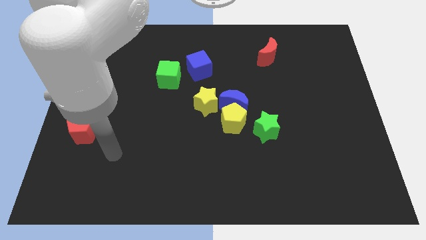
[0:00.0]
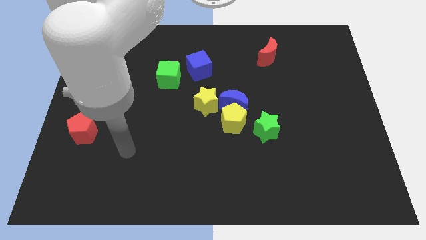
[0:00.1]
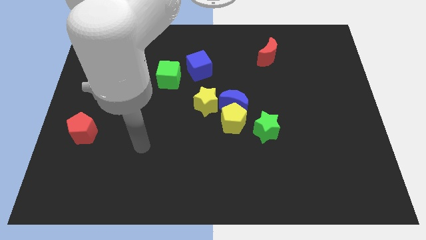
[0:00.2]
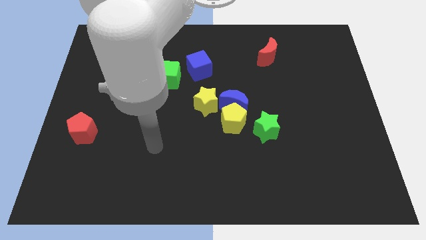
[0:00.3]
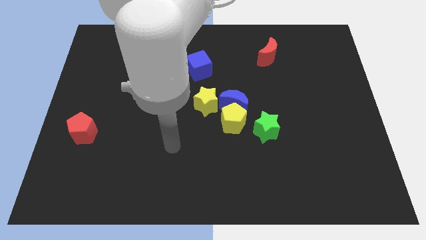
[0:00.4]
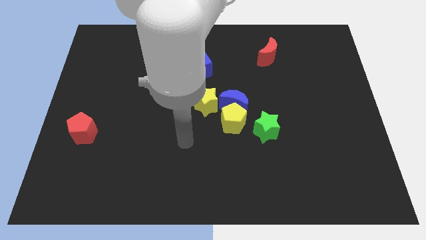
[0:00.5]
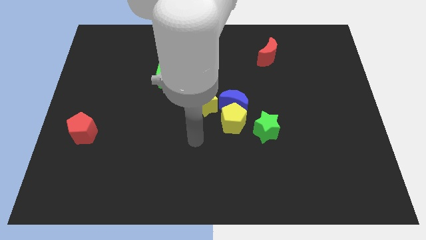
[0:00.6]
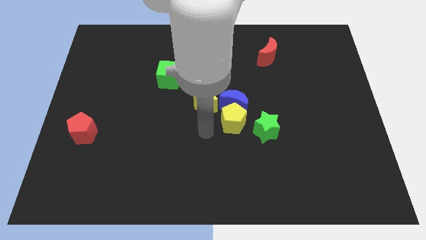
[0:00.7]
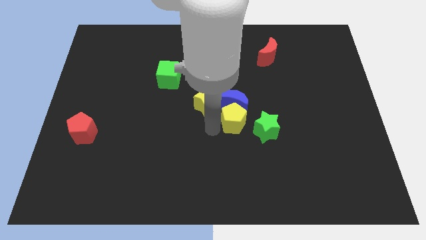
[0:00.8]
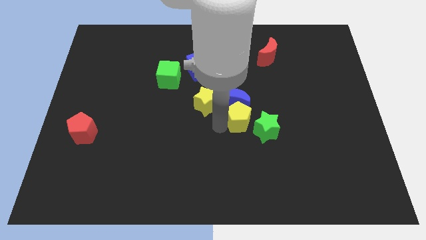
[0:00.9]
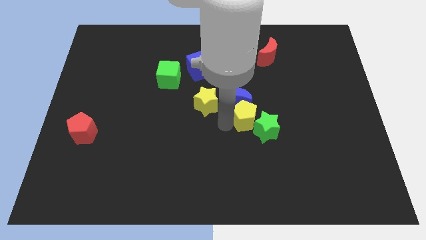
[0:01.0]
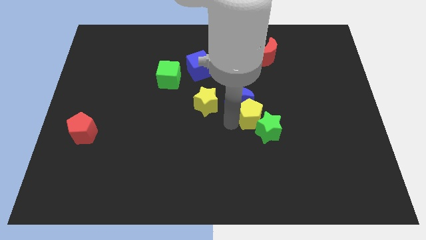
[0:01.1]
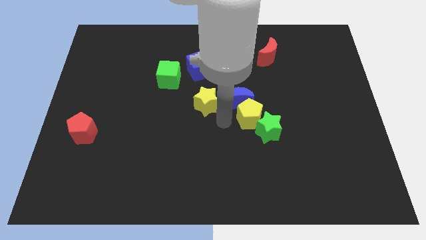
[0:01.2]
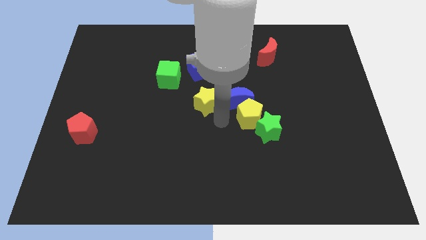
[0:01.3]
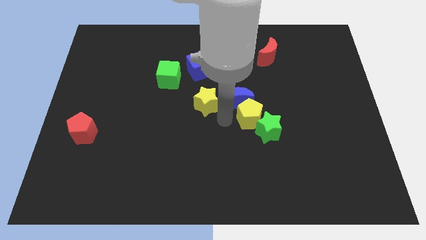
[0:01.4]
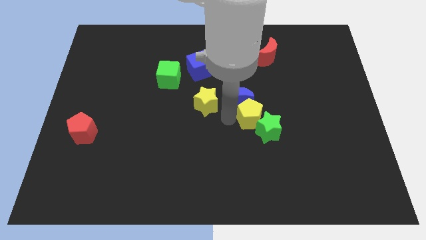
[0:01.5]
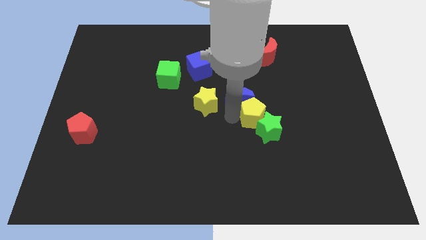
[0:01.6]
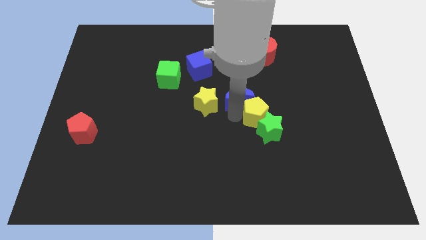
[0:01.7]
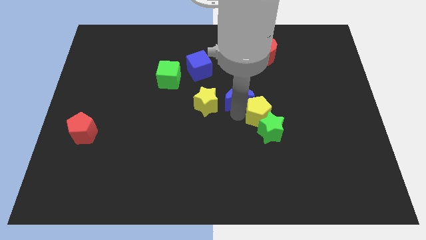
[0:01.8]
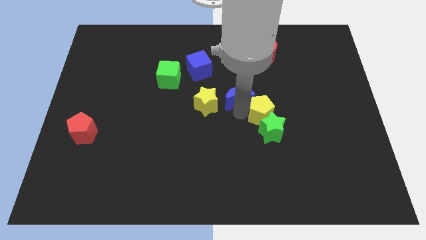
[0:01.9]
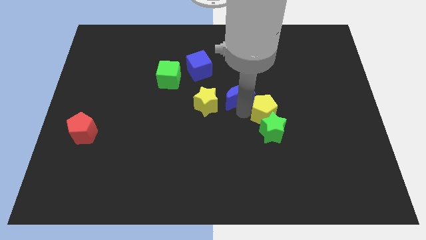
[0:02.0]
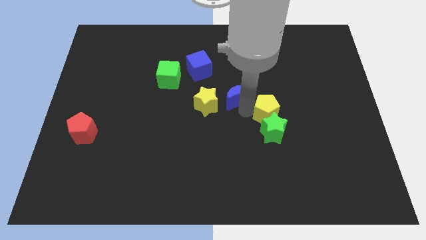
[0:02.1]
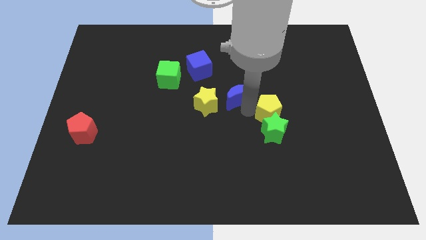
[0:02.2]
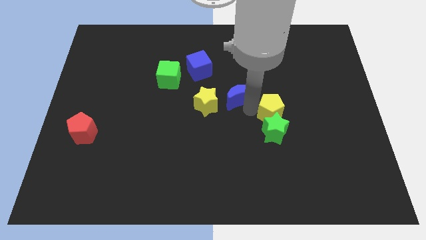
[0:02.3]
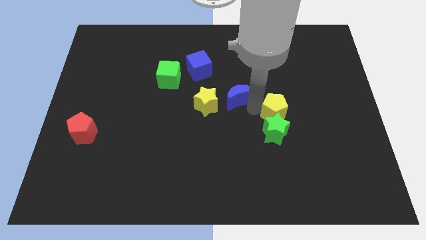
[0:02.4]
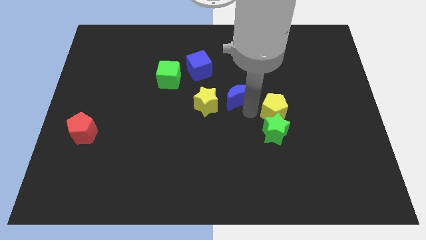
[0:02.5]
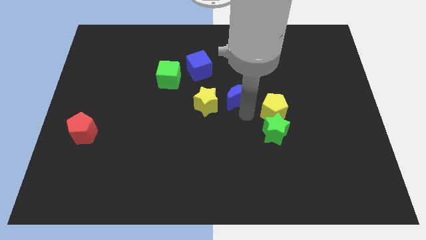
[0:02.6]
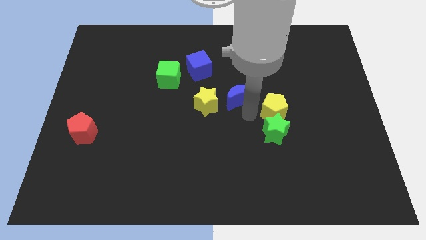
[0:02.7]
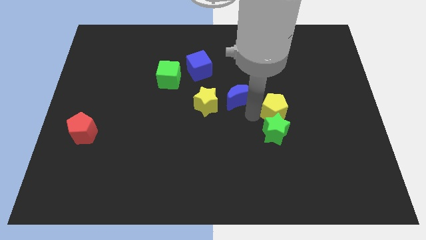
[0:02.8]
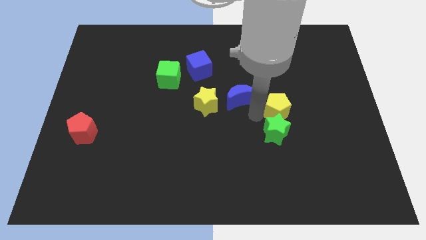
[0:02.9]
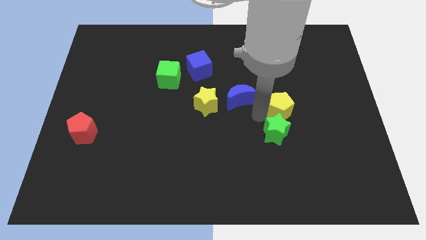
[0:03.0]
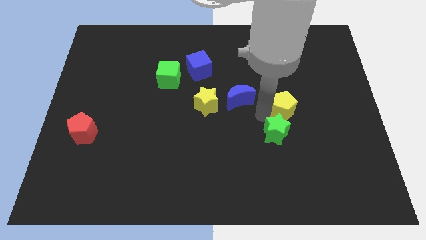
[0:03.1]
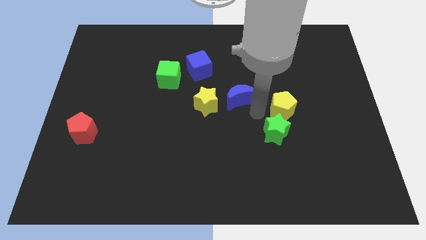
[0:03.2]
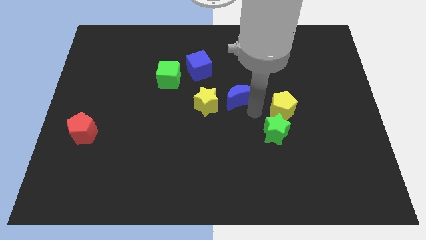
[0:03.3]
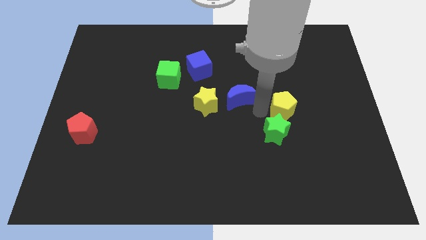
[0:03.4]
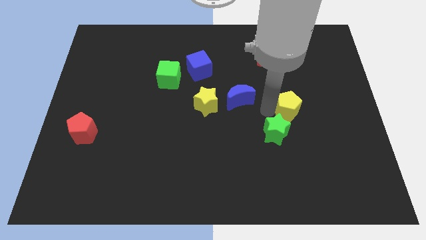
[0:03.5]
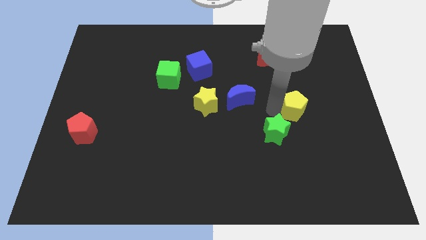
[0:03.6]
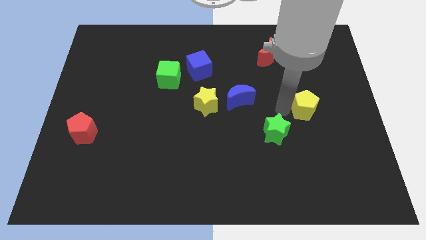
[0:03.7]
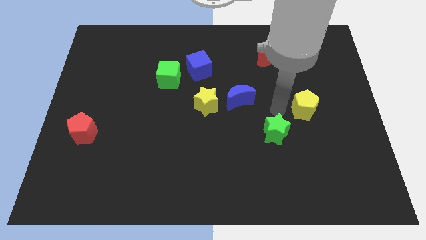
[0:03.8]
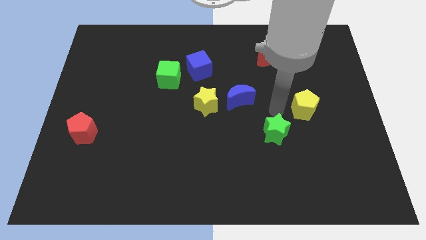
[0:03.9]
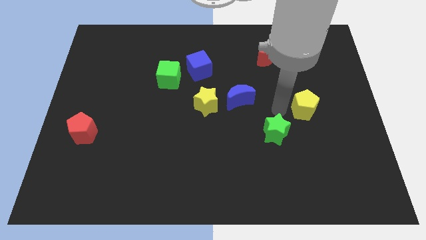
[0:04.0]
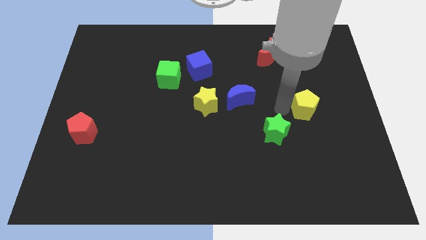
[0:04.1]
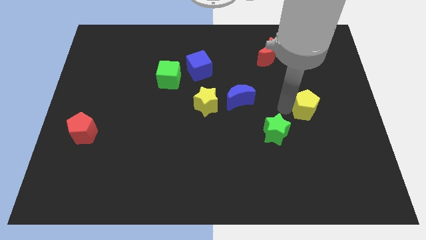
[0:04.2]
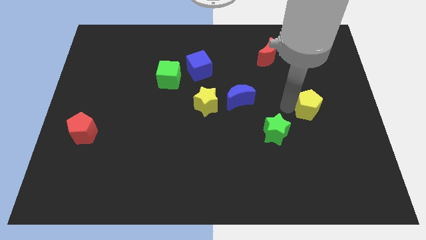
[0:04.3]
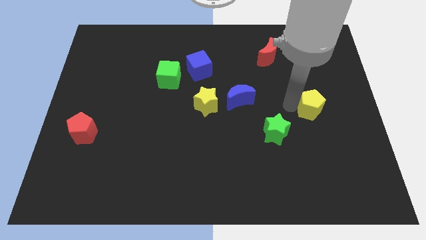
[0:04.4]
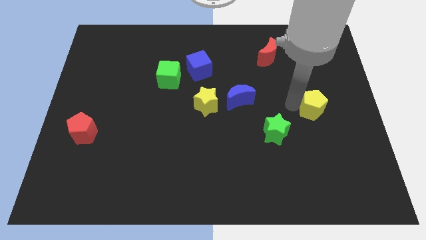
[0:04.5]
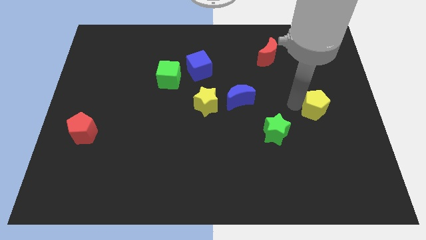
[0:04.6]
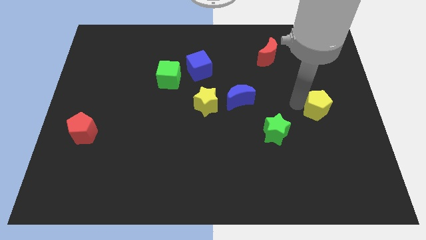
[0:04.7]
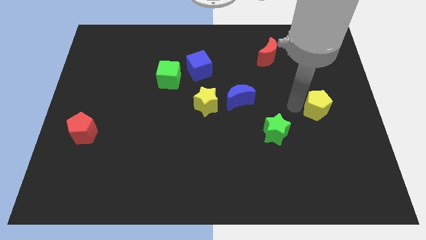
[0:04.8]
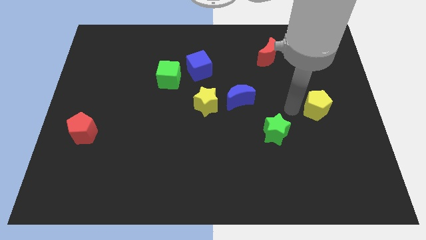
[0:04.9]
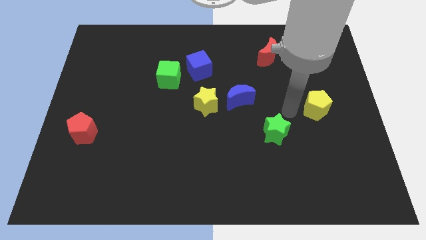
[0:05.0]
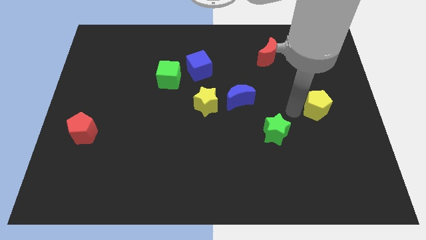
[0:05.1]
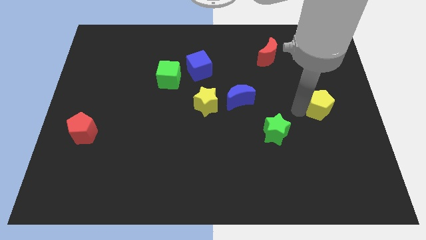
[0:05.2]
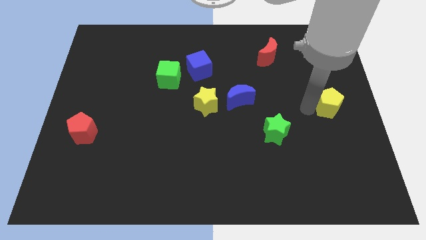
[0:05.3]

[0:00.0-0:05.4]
move the yellow pentagon to the right side

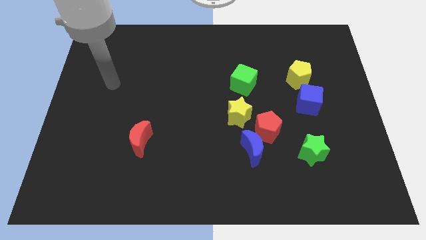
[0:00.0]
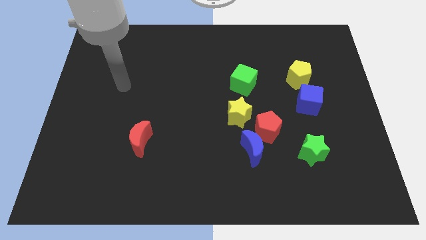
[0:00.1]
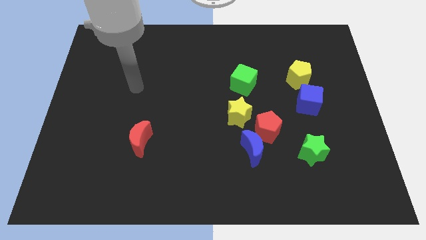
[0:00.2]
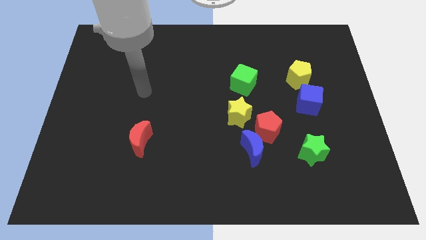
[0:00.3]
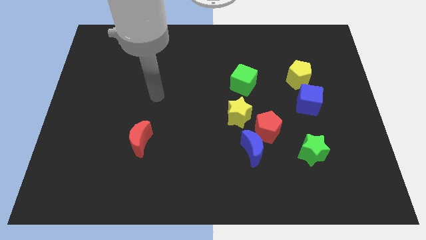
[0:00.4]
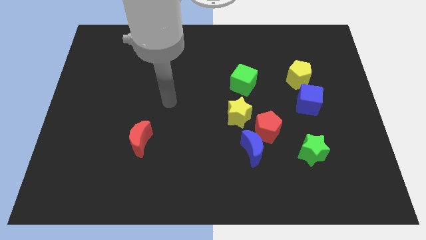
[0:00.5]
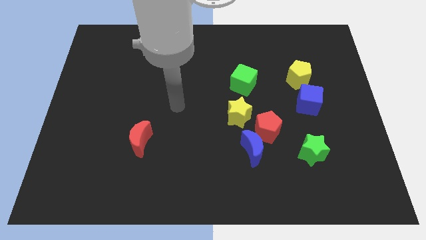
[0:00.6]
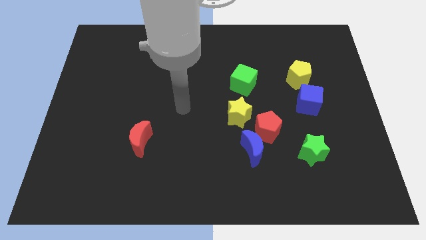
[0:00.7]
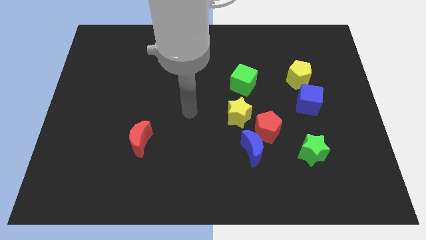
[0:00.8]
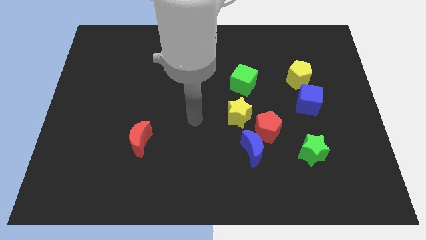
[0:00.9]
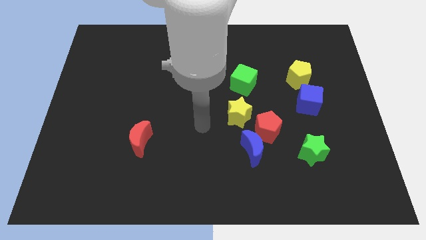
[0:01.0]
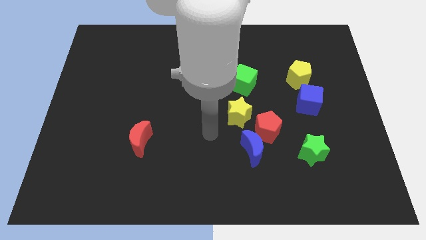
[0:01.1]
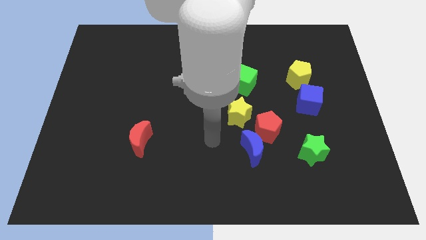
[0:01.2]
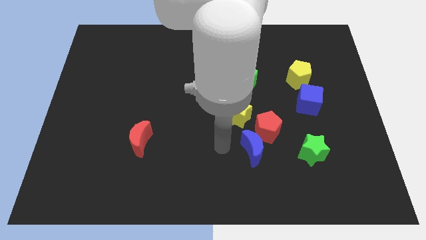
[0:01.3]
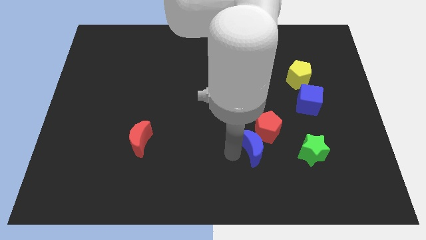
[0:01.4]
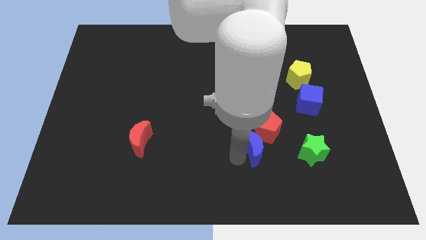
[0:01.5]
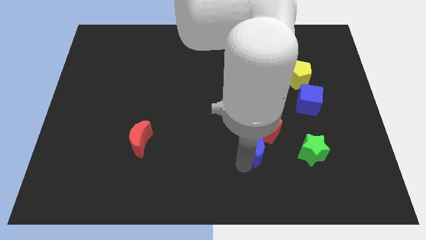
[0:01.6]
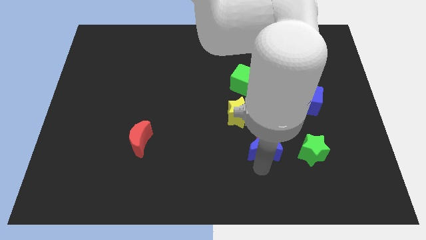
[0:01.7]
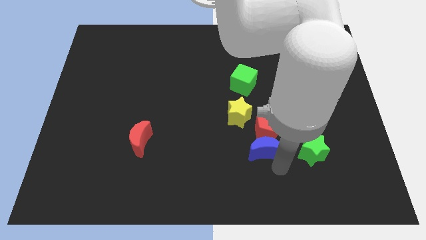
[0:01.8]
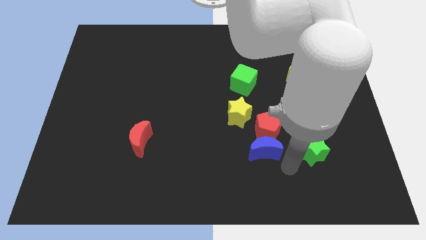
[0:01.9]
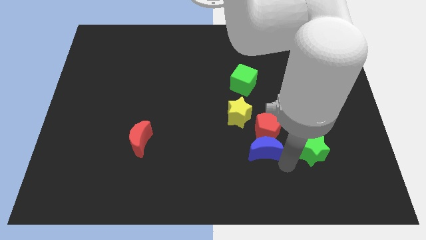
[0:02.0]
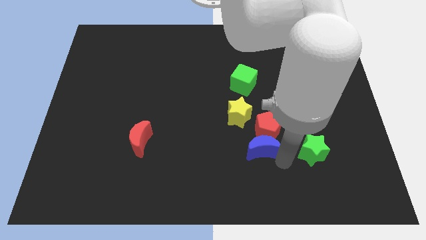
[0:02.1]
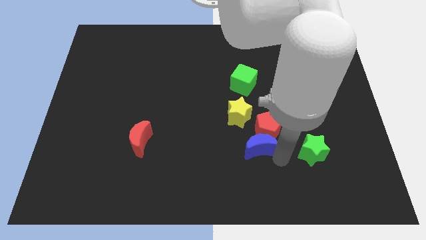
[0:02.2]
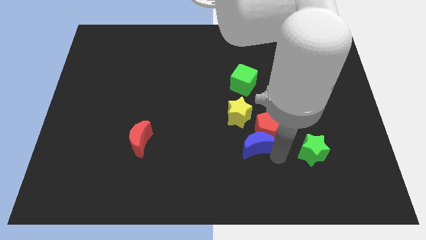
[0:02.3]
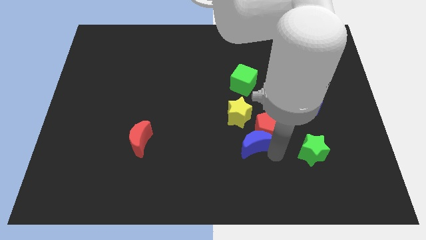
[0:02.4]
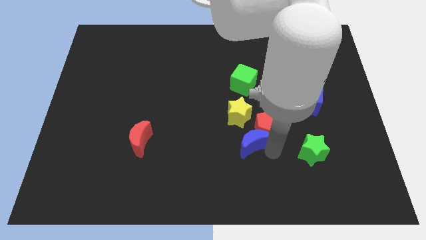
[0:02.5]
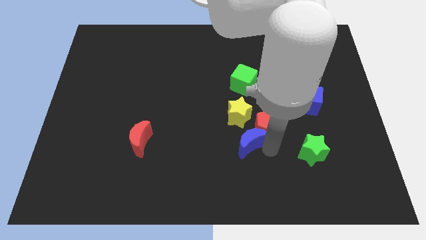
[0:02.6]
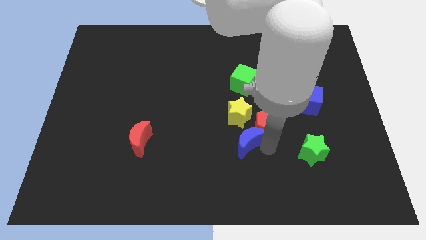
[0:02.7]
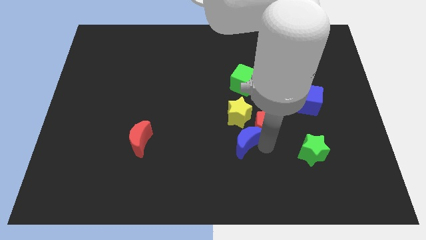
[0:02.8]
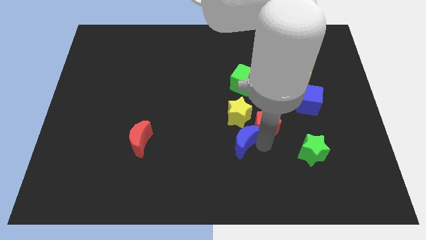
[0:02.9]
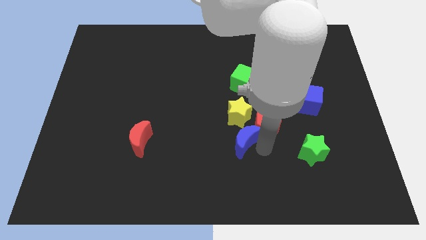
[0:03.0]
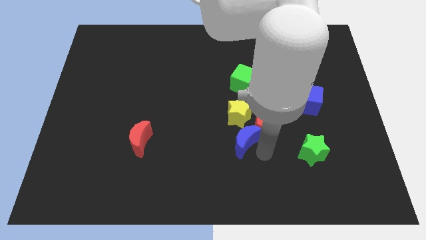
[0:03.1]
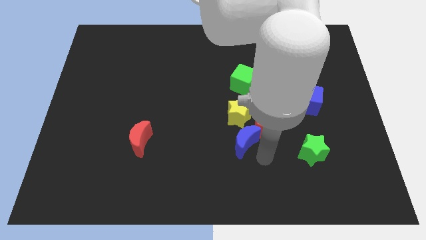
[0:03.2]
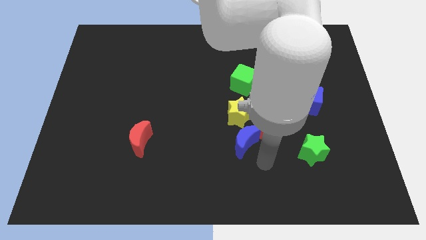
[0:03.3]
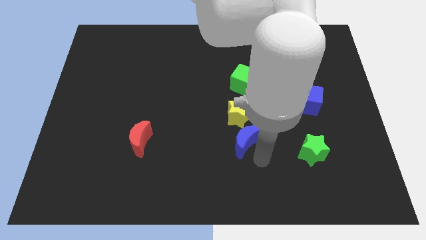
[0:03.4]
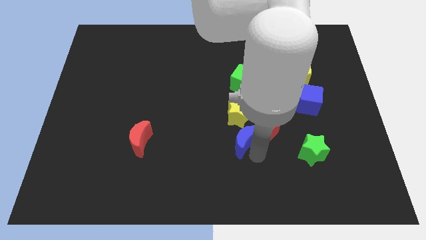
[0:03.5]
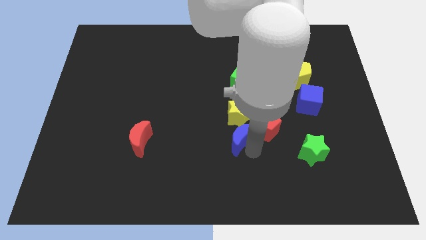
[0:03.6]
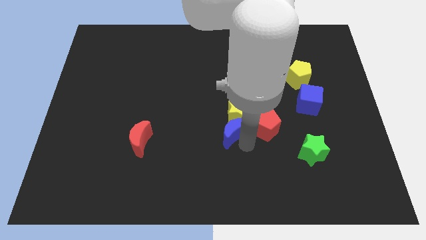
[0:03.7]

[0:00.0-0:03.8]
move the blue moon to the center of the board
